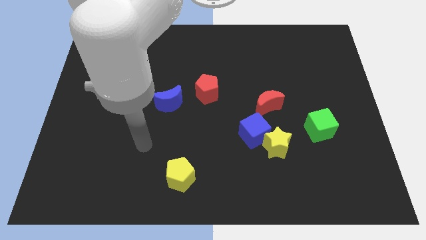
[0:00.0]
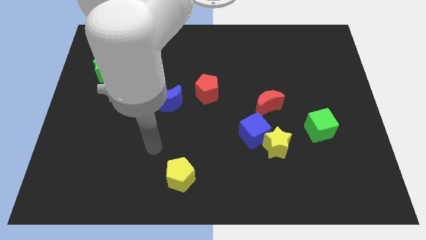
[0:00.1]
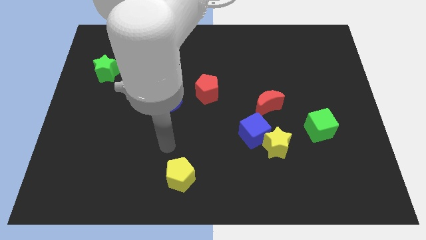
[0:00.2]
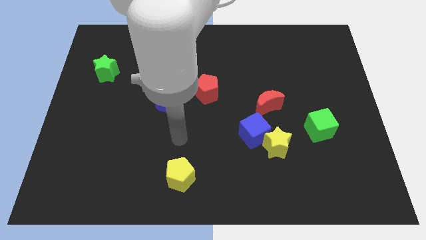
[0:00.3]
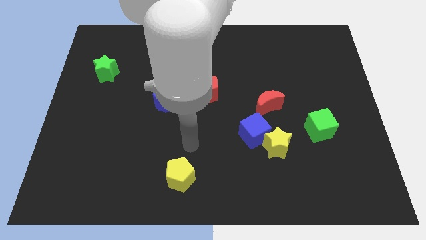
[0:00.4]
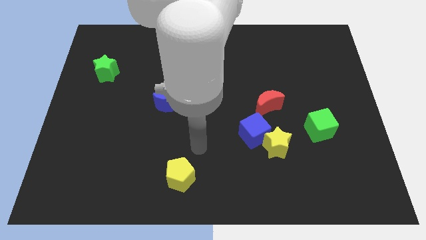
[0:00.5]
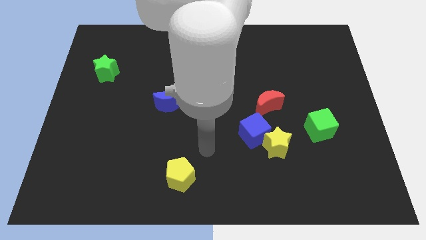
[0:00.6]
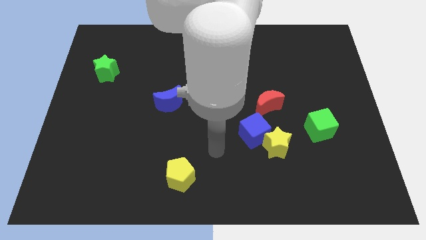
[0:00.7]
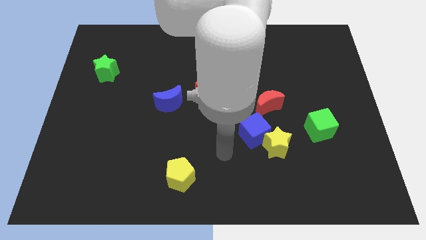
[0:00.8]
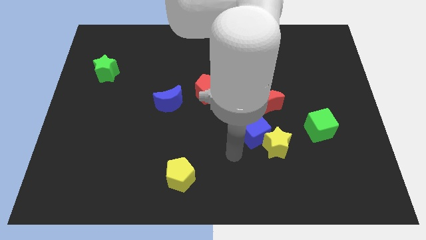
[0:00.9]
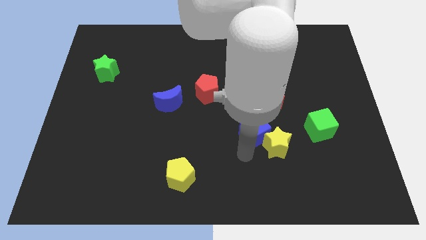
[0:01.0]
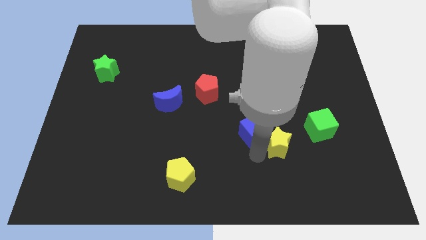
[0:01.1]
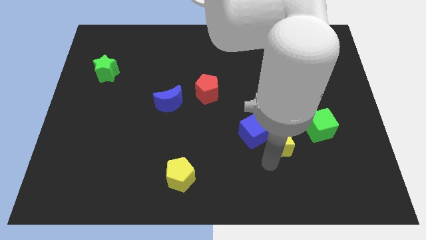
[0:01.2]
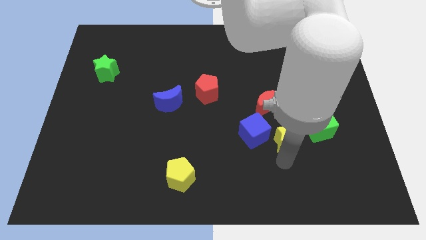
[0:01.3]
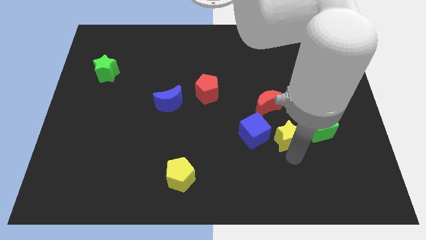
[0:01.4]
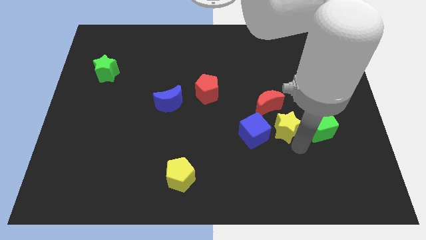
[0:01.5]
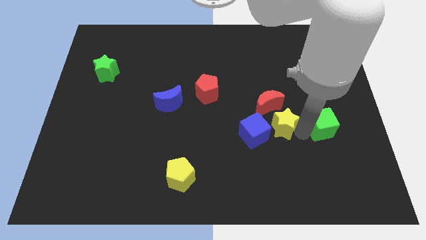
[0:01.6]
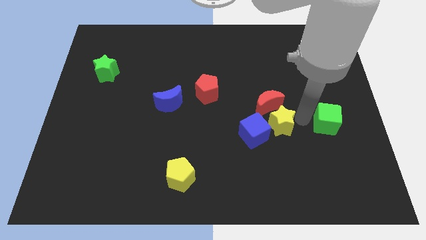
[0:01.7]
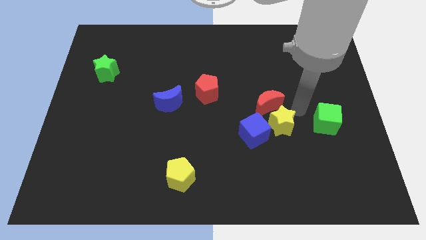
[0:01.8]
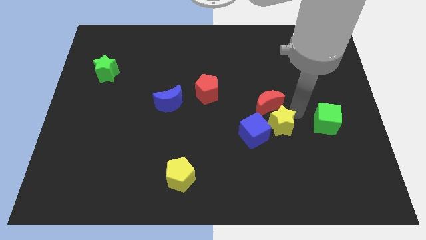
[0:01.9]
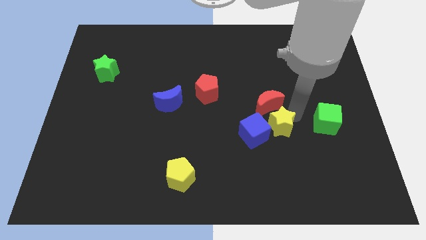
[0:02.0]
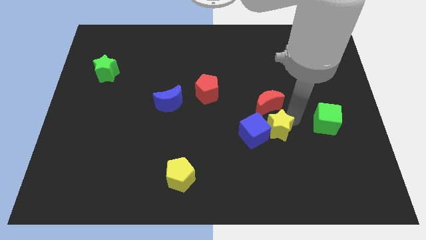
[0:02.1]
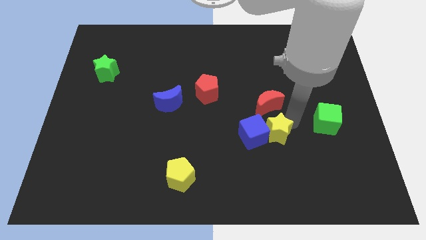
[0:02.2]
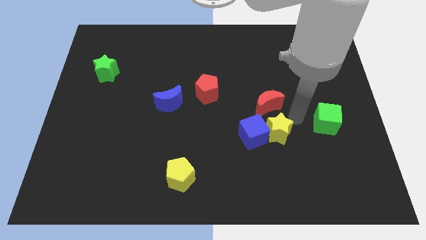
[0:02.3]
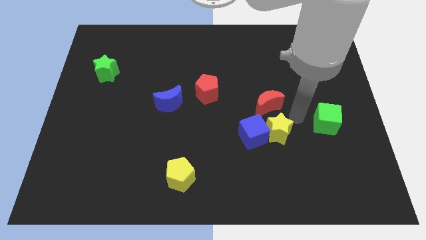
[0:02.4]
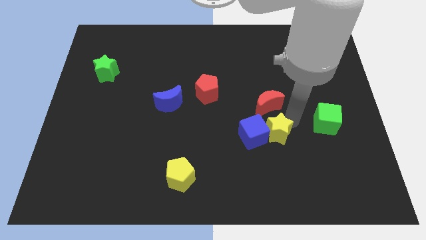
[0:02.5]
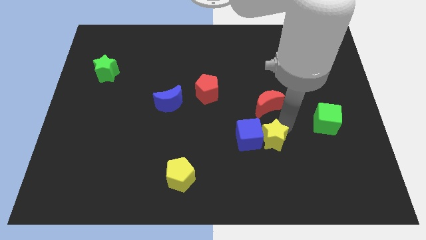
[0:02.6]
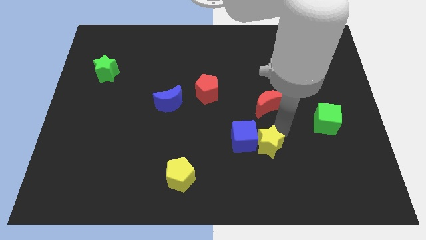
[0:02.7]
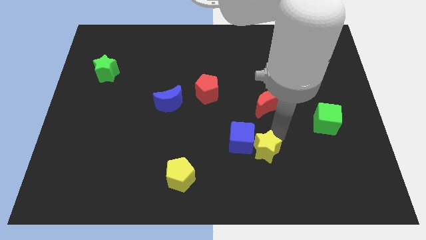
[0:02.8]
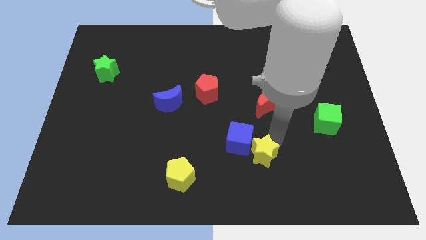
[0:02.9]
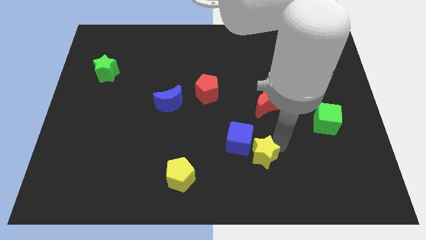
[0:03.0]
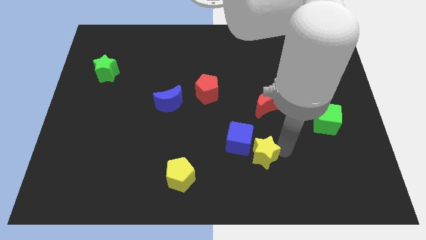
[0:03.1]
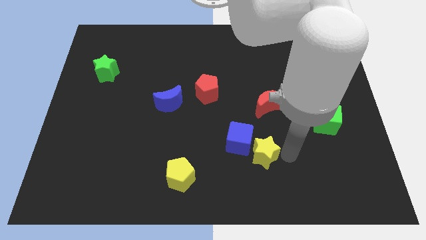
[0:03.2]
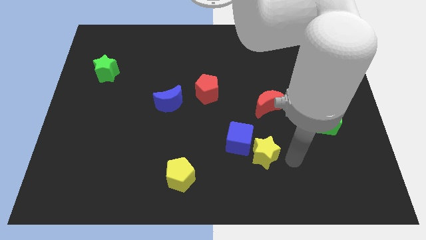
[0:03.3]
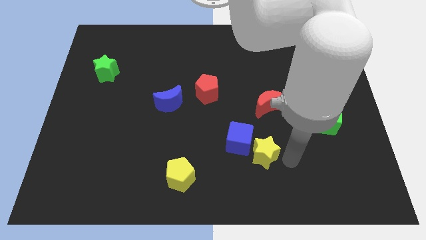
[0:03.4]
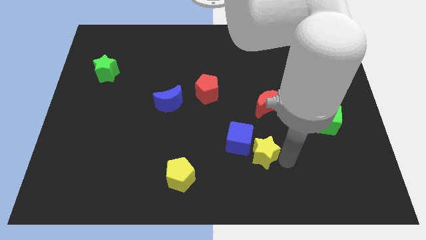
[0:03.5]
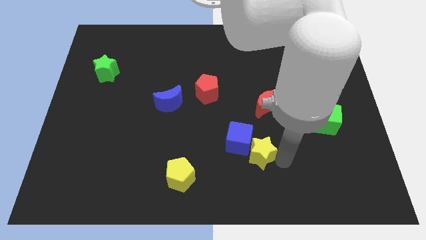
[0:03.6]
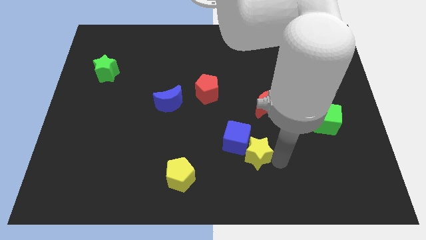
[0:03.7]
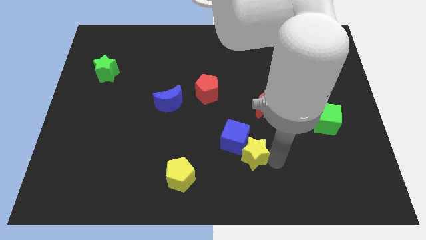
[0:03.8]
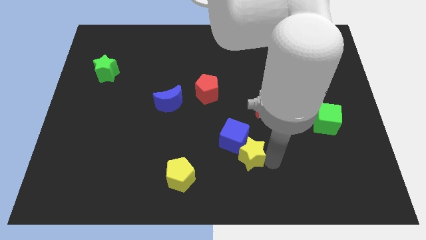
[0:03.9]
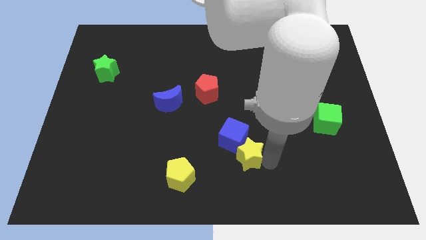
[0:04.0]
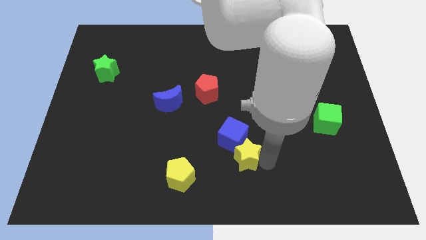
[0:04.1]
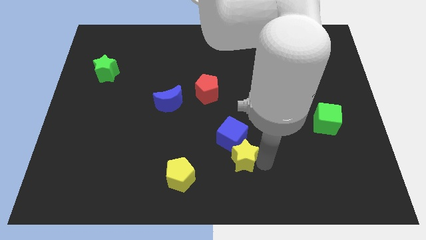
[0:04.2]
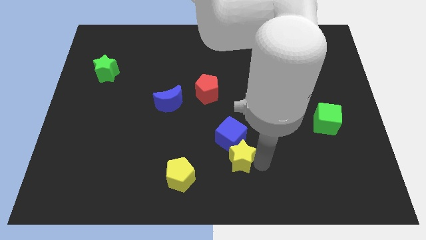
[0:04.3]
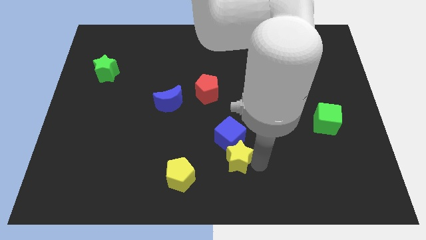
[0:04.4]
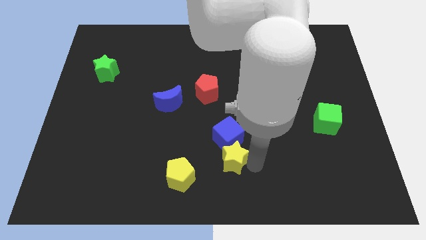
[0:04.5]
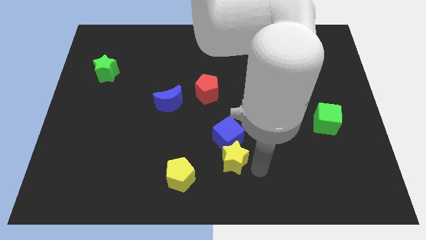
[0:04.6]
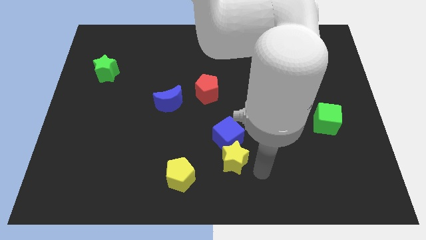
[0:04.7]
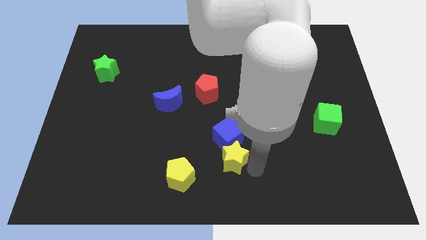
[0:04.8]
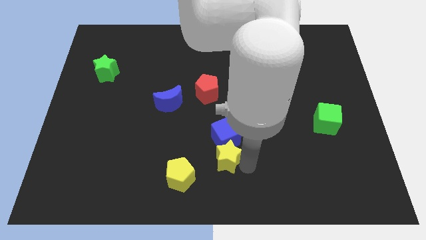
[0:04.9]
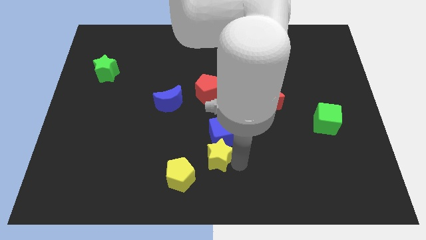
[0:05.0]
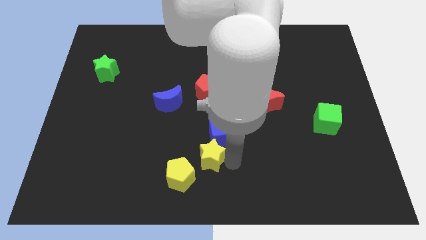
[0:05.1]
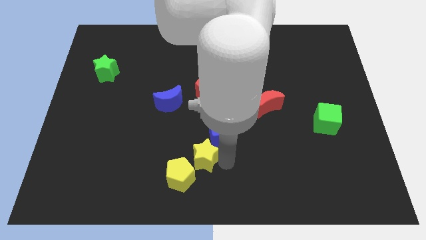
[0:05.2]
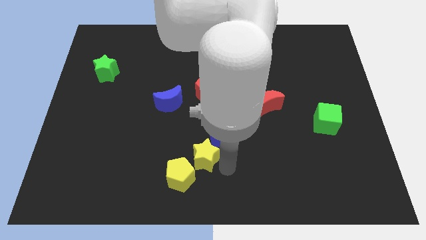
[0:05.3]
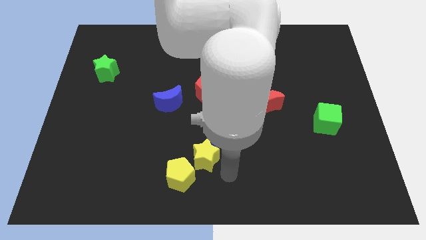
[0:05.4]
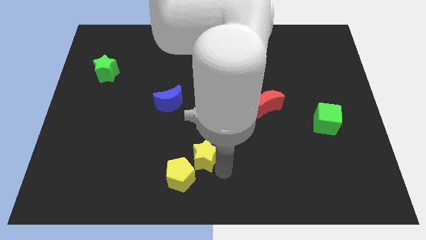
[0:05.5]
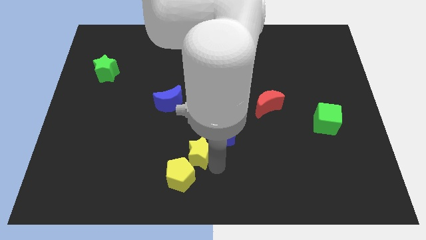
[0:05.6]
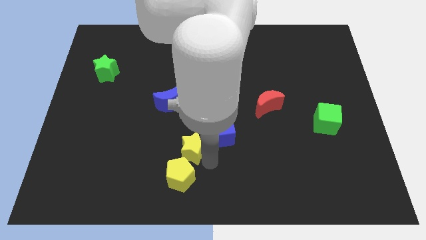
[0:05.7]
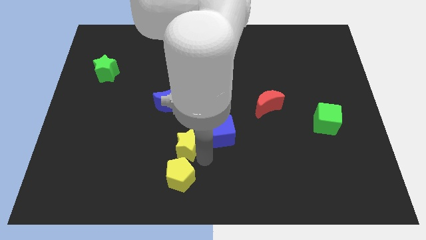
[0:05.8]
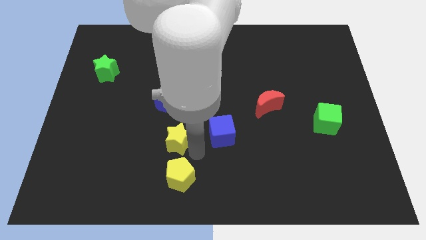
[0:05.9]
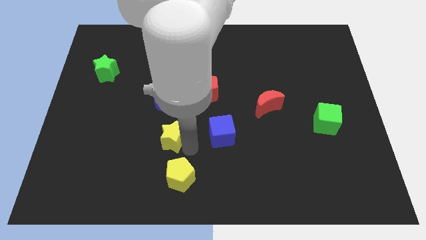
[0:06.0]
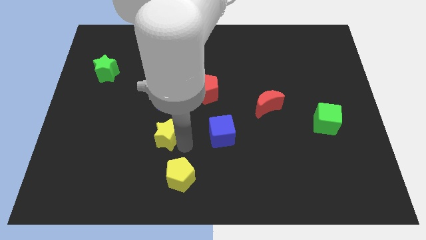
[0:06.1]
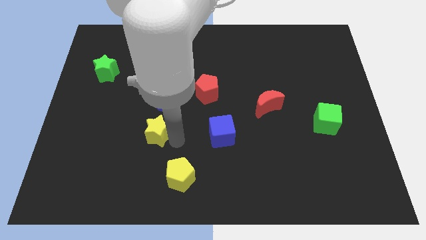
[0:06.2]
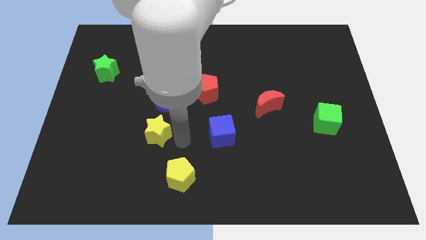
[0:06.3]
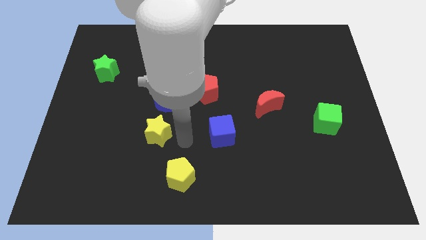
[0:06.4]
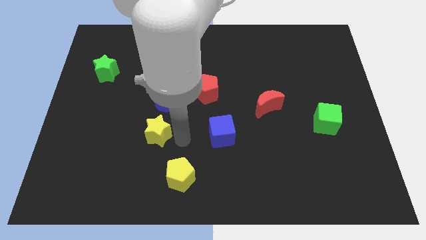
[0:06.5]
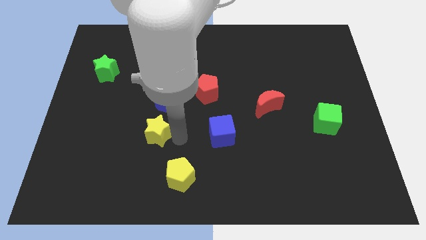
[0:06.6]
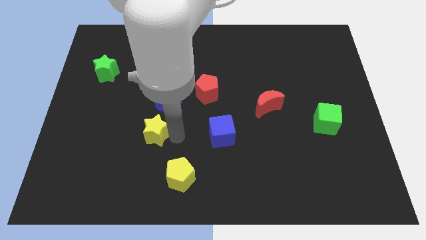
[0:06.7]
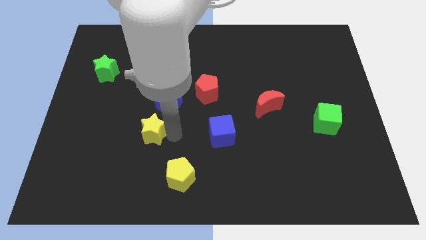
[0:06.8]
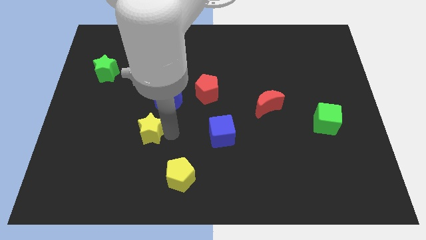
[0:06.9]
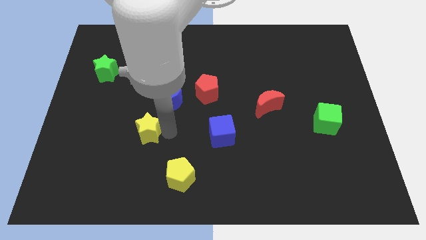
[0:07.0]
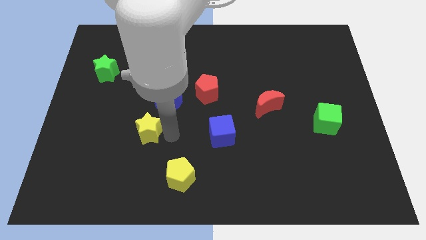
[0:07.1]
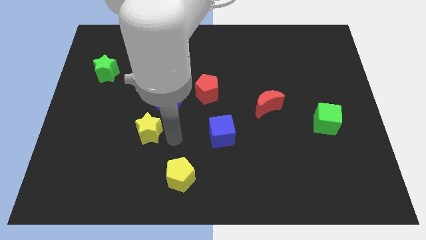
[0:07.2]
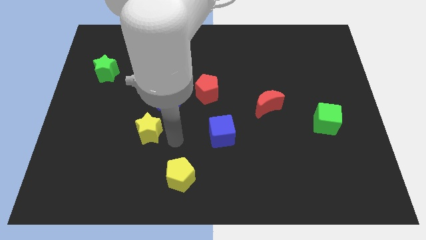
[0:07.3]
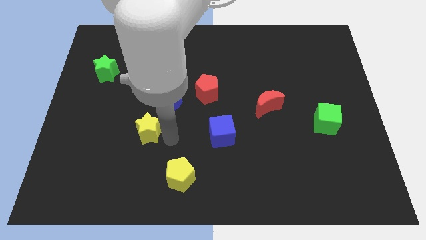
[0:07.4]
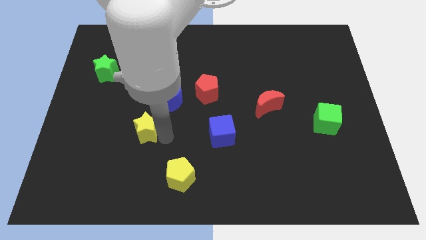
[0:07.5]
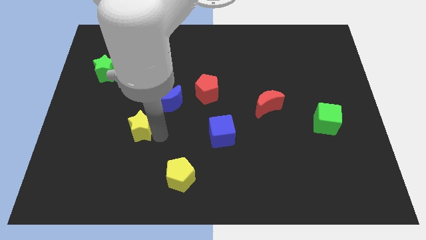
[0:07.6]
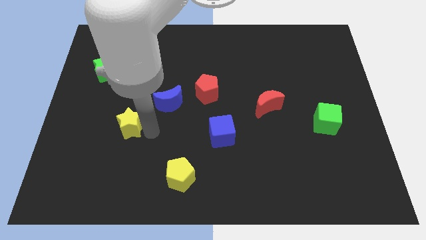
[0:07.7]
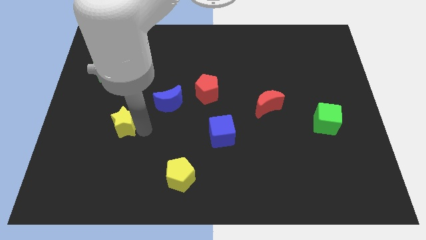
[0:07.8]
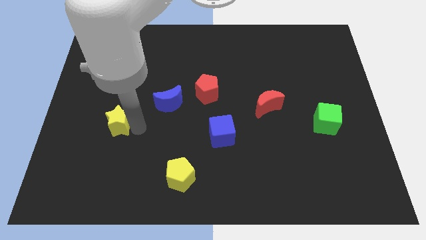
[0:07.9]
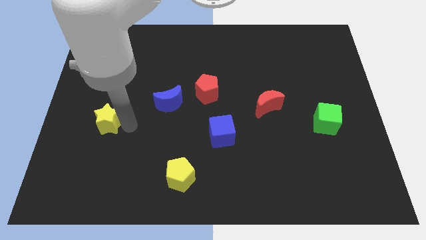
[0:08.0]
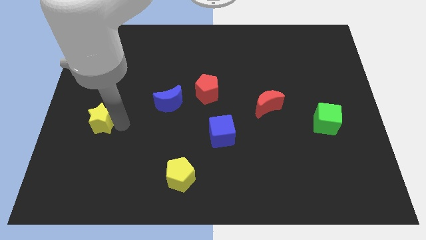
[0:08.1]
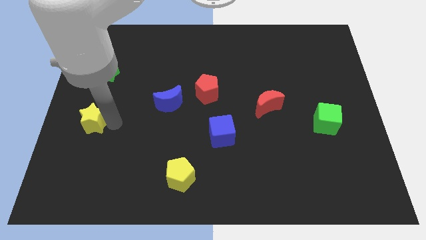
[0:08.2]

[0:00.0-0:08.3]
slide the yellow star to the left side
